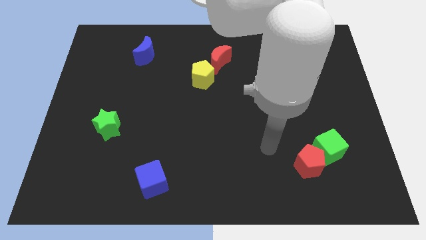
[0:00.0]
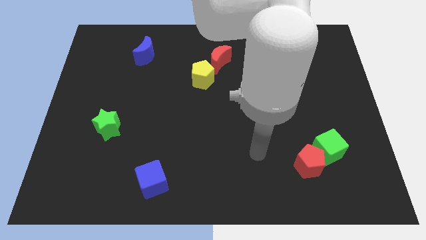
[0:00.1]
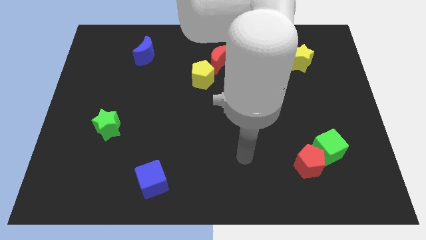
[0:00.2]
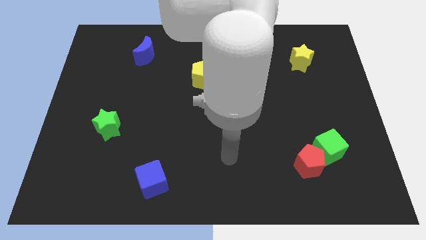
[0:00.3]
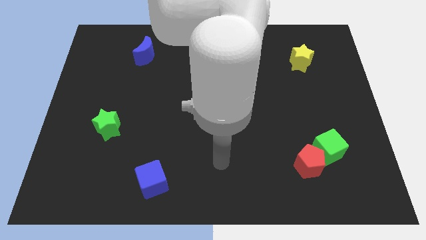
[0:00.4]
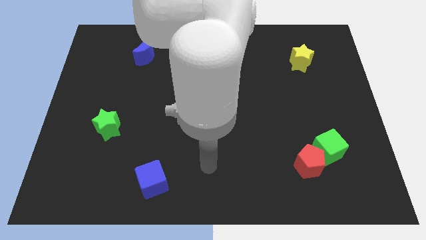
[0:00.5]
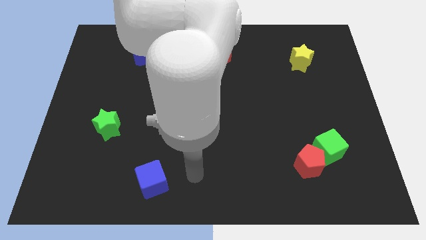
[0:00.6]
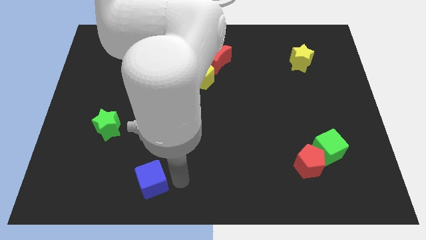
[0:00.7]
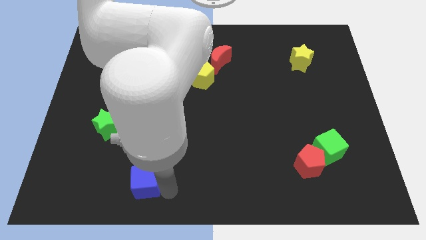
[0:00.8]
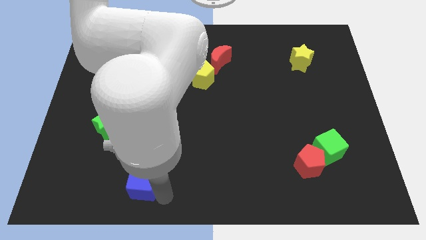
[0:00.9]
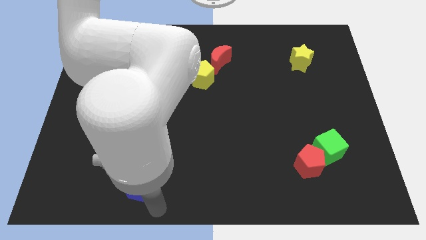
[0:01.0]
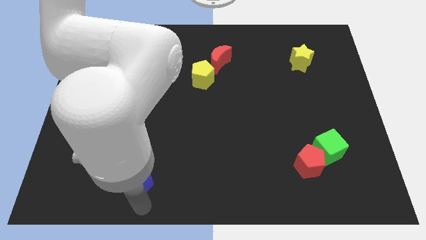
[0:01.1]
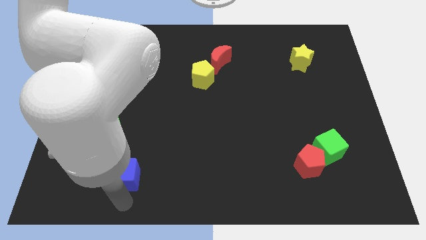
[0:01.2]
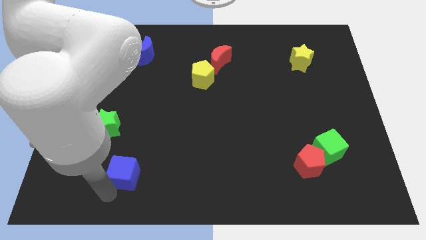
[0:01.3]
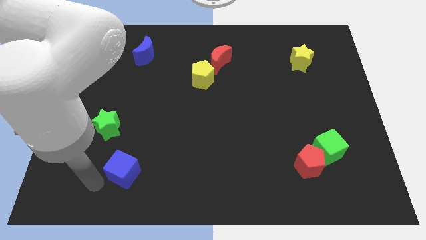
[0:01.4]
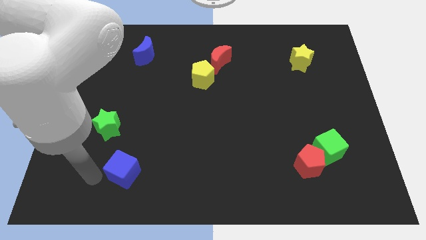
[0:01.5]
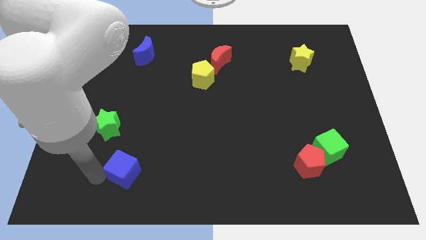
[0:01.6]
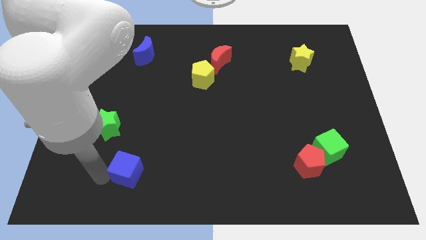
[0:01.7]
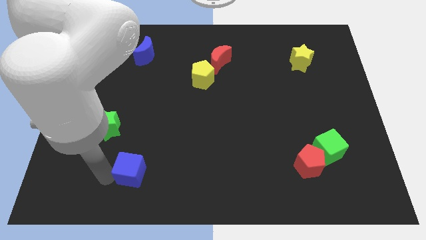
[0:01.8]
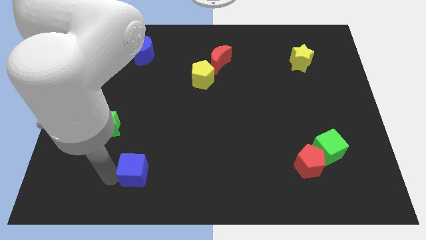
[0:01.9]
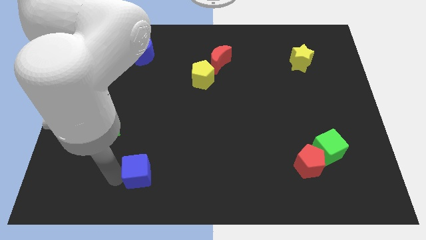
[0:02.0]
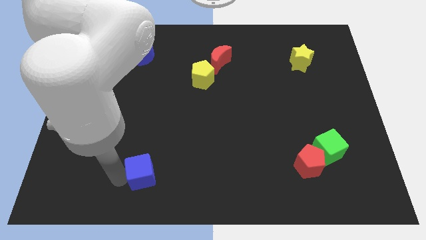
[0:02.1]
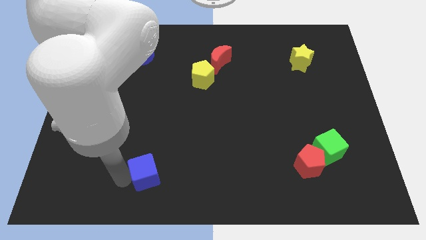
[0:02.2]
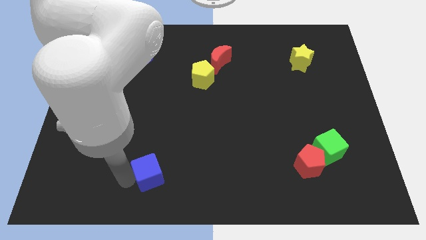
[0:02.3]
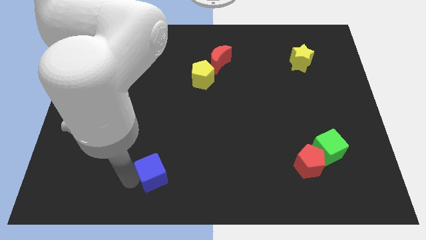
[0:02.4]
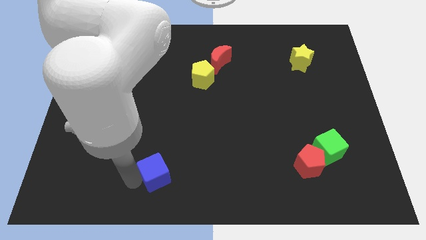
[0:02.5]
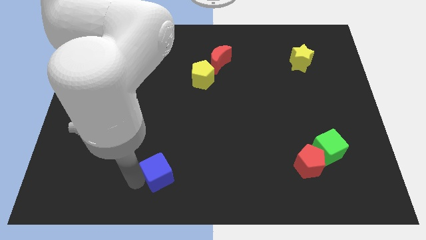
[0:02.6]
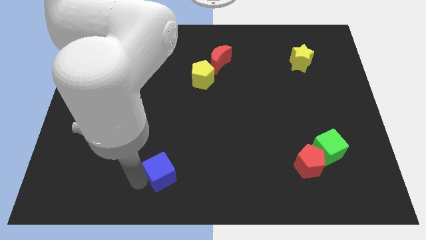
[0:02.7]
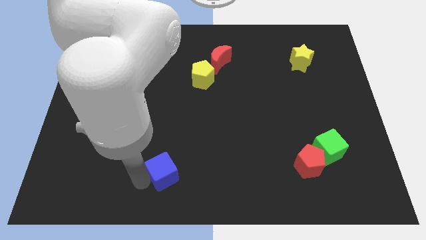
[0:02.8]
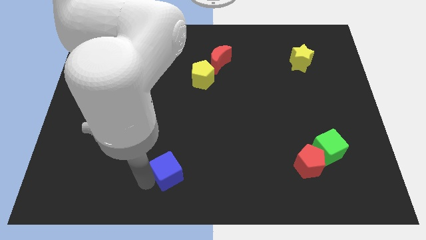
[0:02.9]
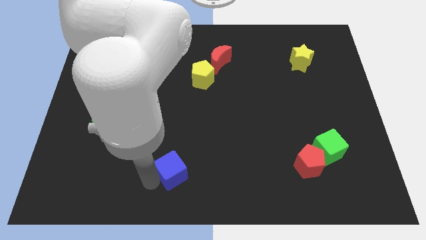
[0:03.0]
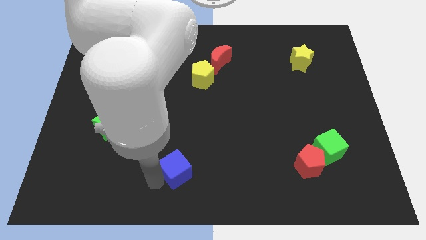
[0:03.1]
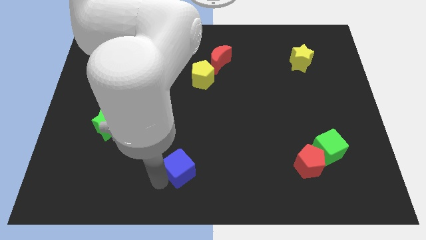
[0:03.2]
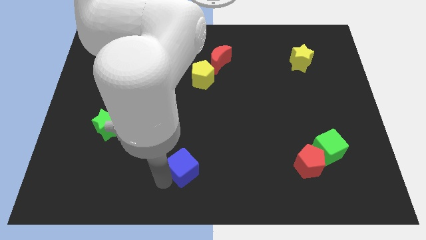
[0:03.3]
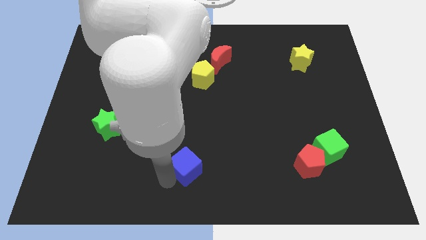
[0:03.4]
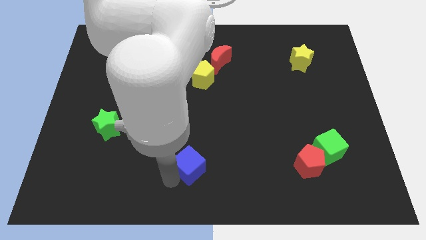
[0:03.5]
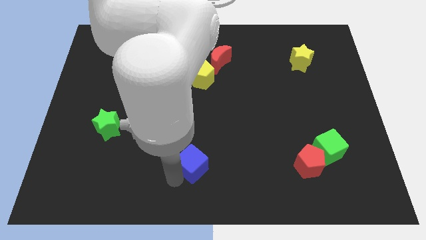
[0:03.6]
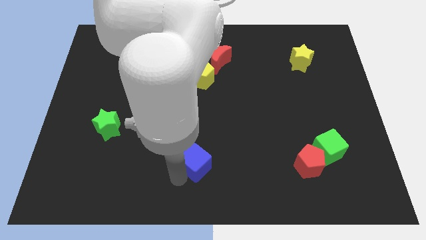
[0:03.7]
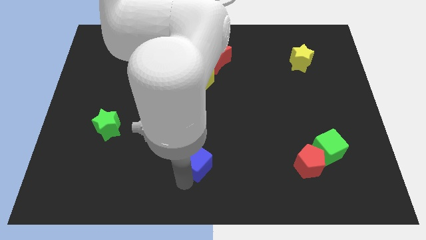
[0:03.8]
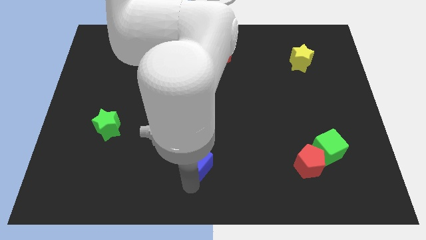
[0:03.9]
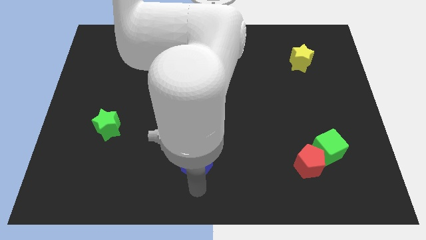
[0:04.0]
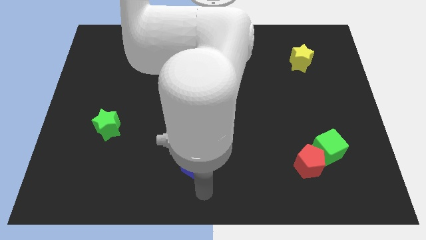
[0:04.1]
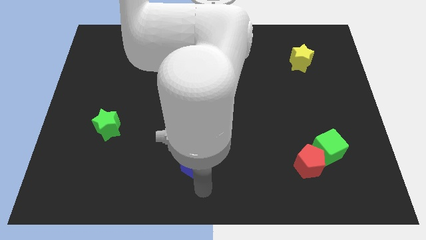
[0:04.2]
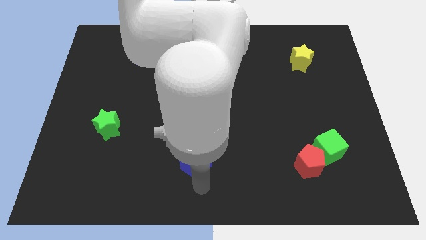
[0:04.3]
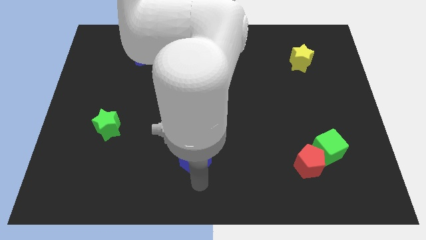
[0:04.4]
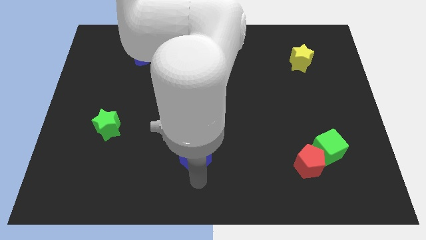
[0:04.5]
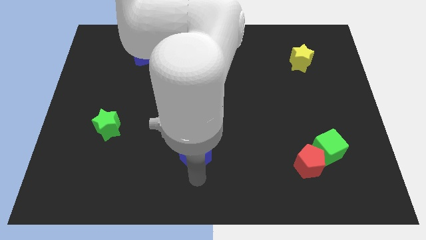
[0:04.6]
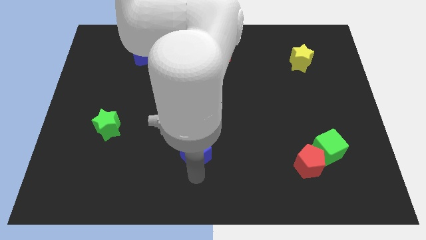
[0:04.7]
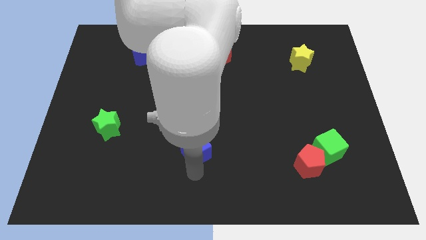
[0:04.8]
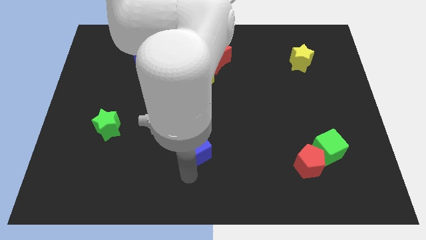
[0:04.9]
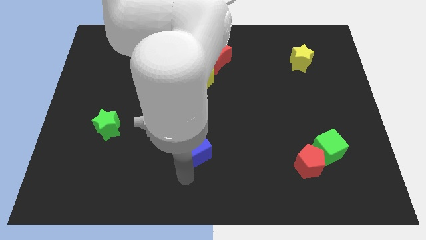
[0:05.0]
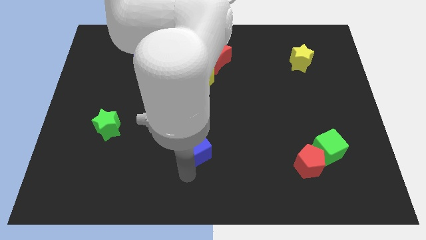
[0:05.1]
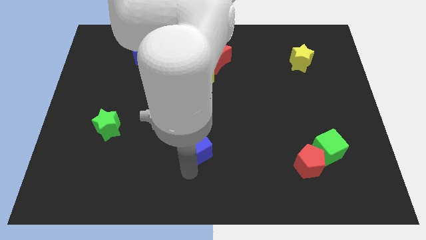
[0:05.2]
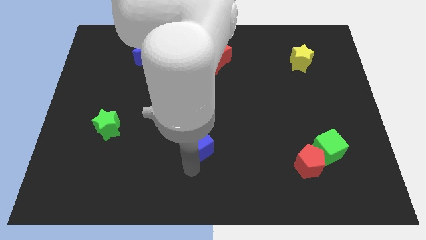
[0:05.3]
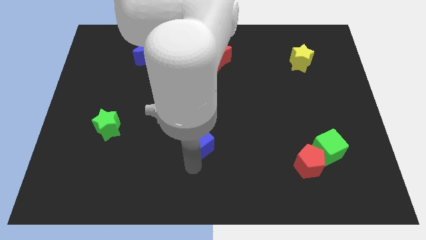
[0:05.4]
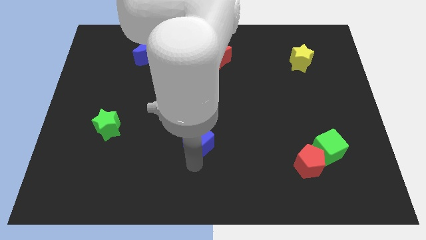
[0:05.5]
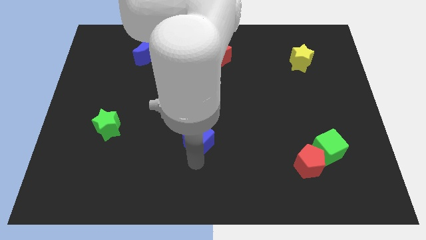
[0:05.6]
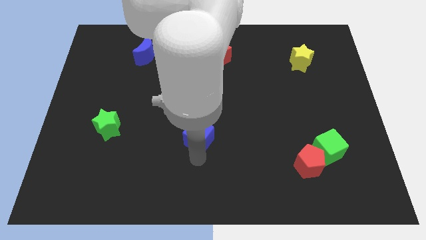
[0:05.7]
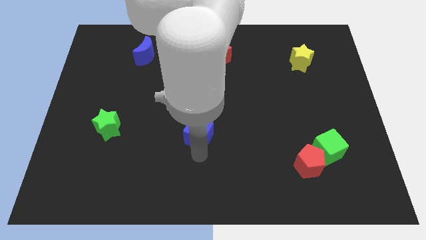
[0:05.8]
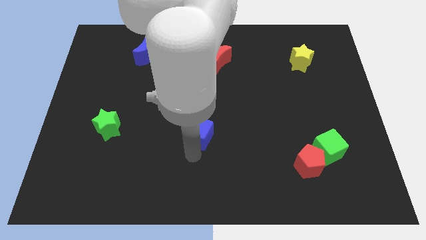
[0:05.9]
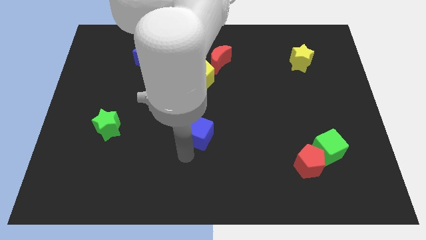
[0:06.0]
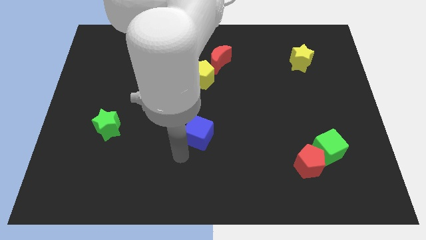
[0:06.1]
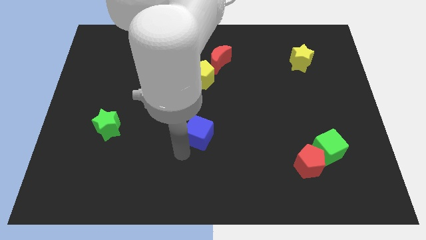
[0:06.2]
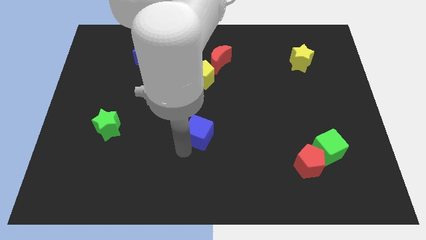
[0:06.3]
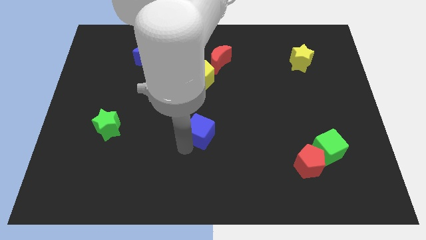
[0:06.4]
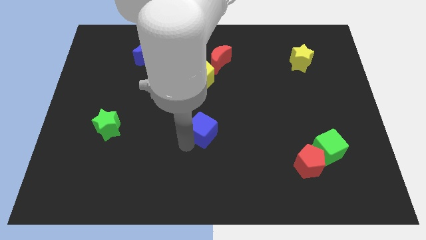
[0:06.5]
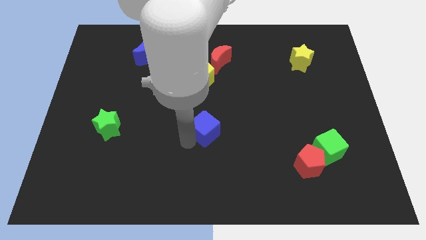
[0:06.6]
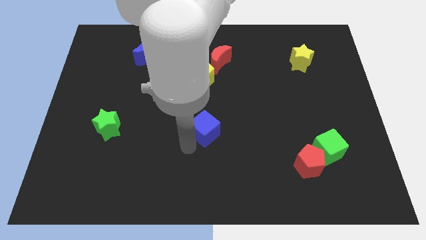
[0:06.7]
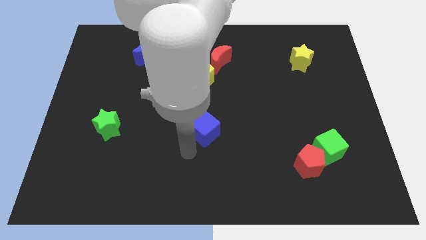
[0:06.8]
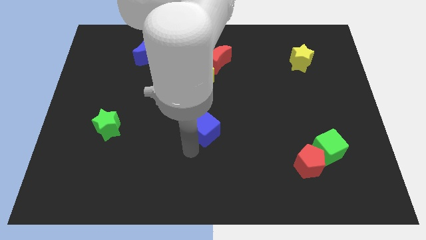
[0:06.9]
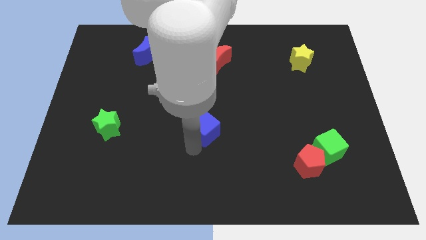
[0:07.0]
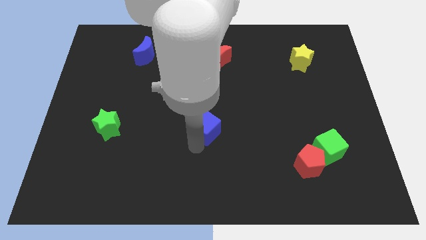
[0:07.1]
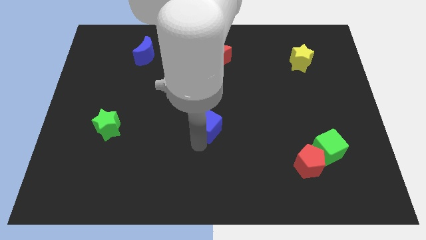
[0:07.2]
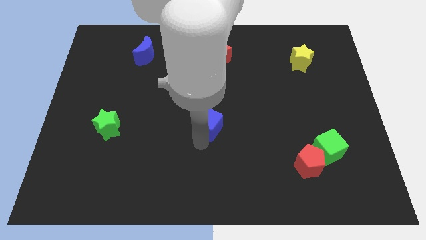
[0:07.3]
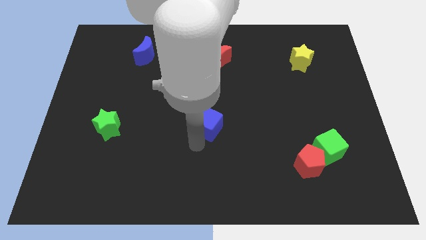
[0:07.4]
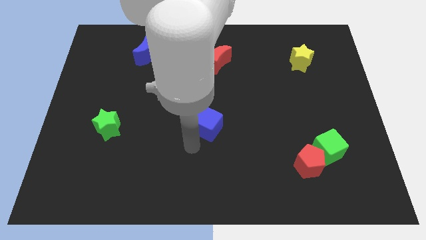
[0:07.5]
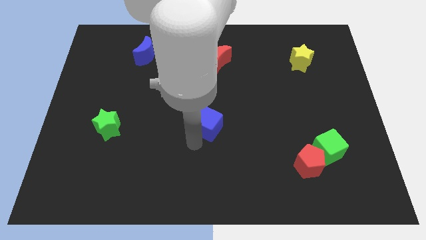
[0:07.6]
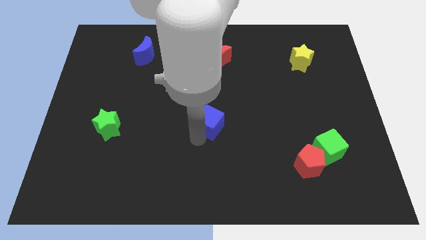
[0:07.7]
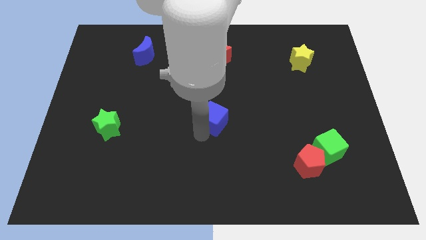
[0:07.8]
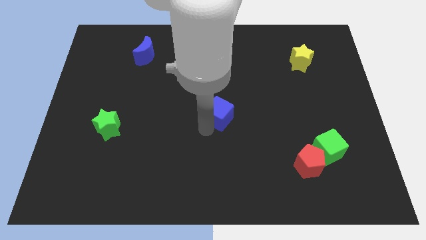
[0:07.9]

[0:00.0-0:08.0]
move the blue cube diagonally upwards and to the right
